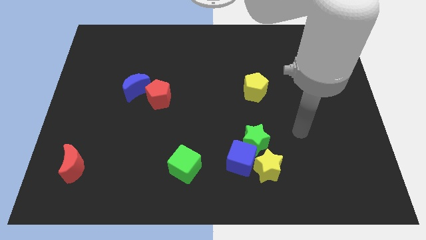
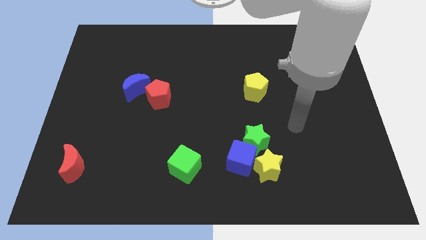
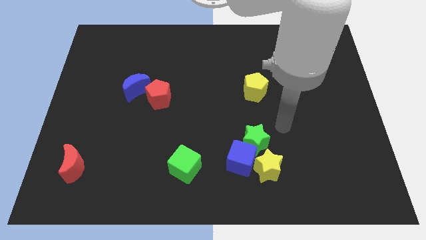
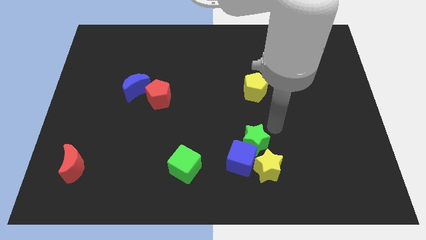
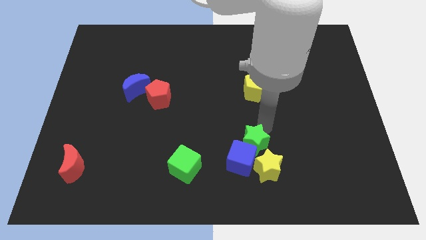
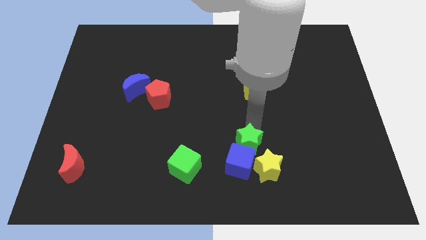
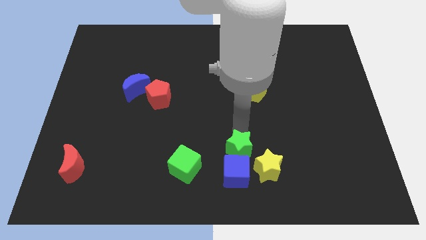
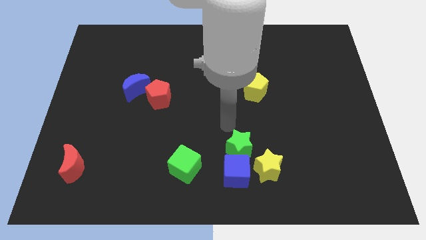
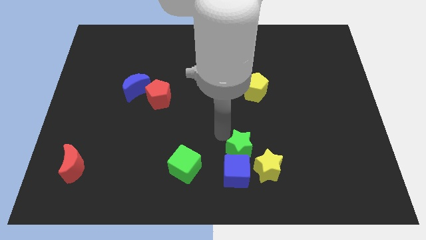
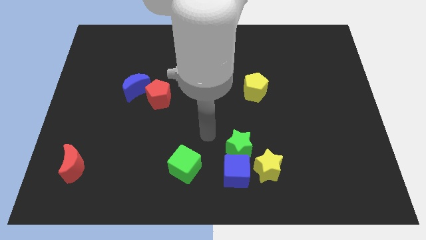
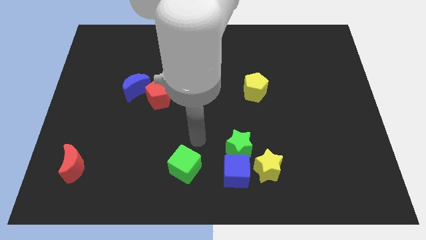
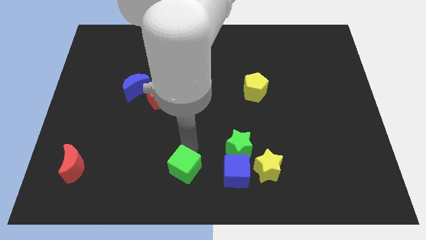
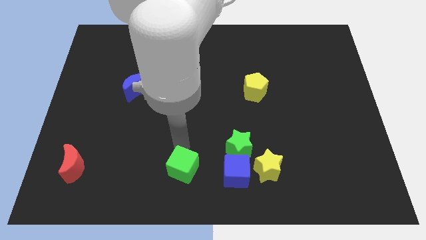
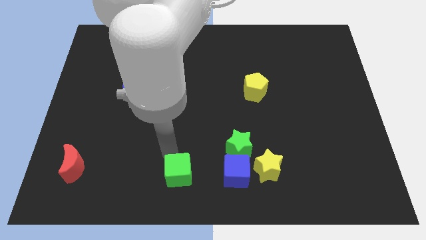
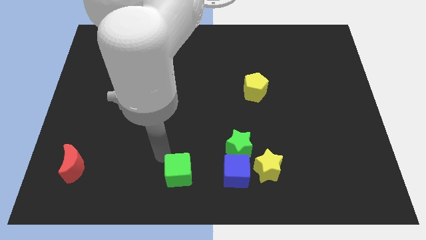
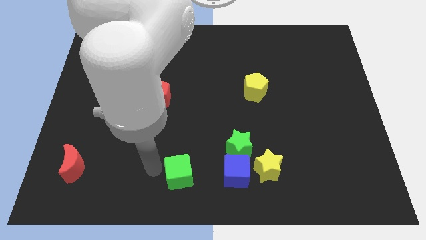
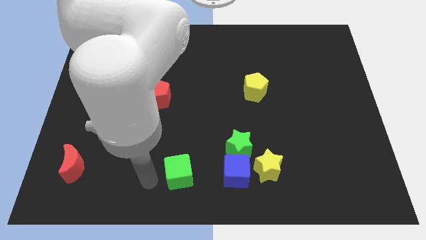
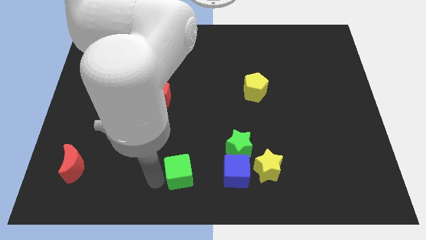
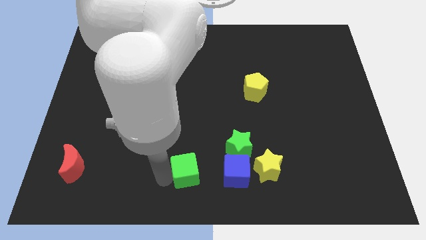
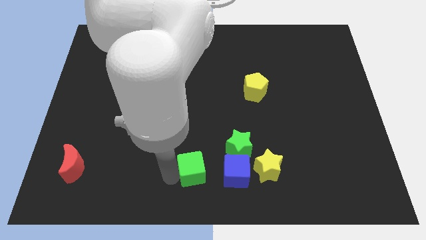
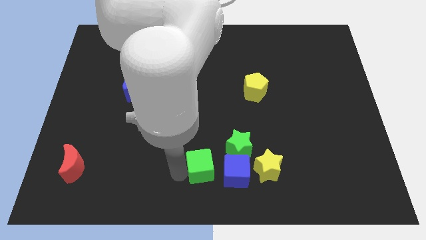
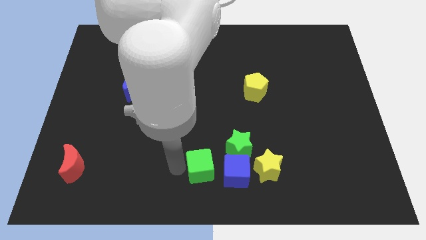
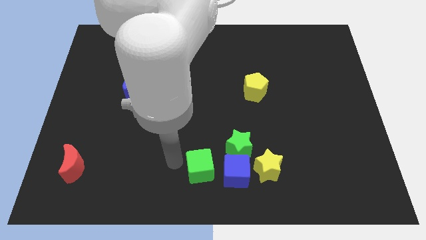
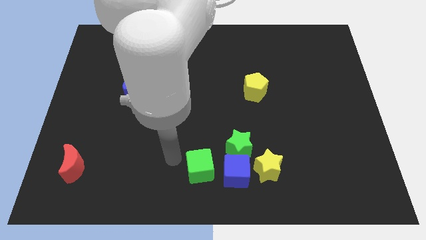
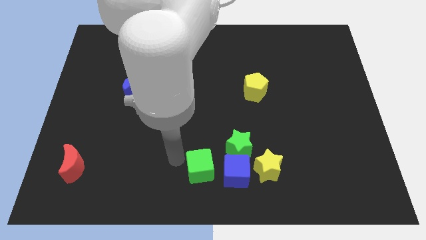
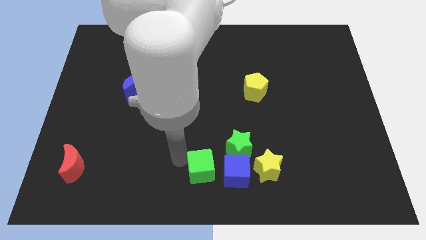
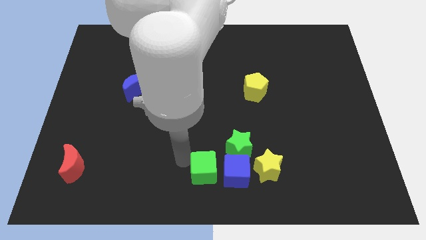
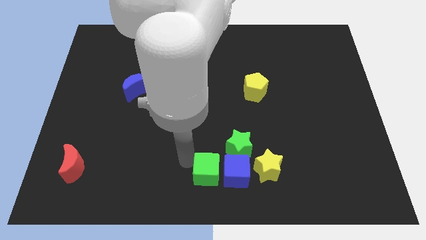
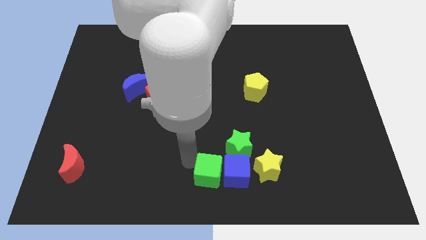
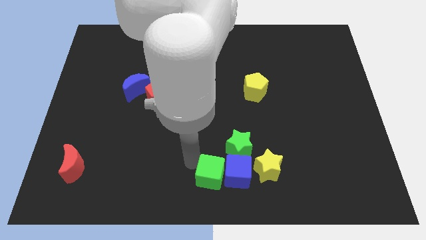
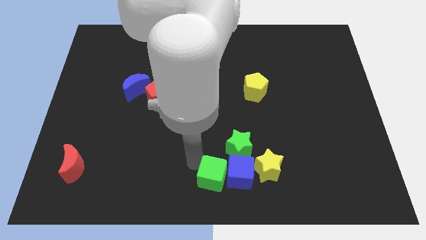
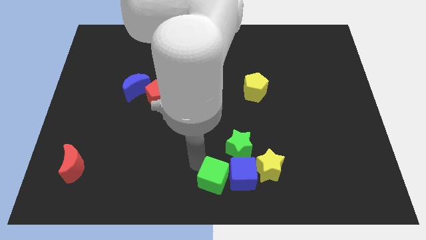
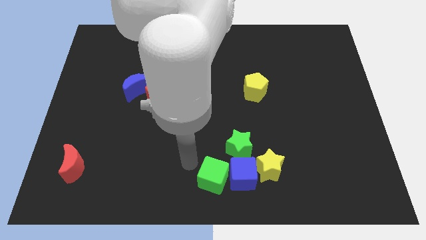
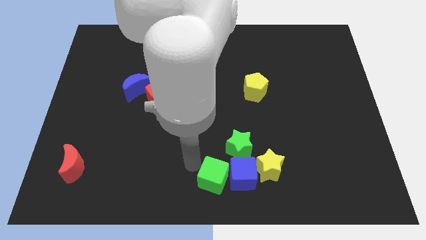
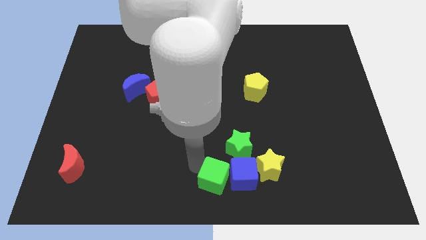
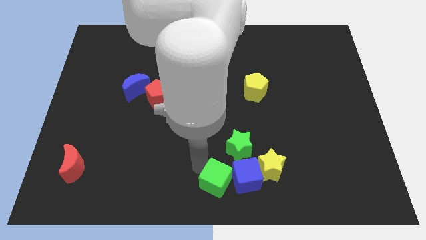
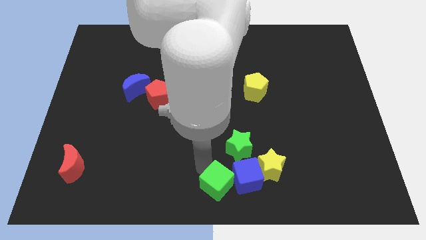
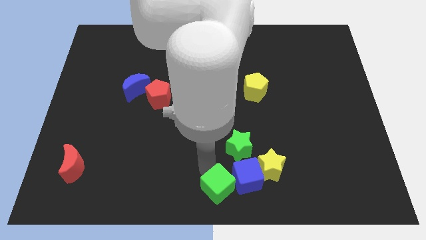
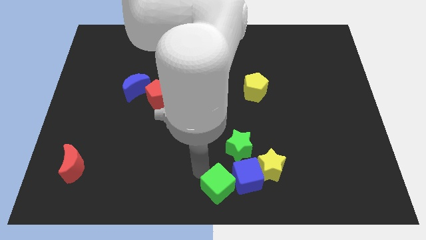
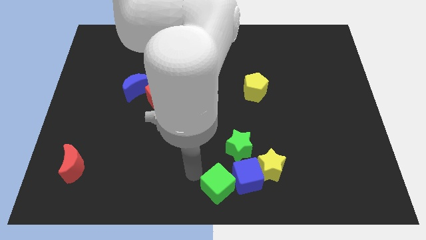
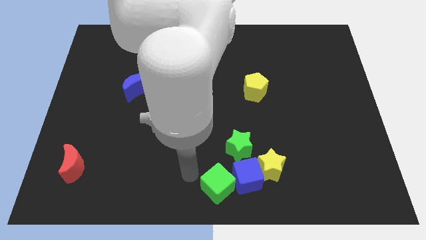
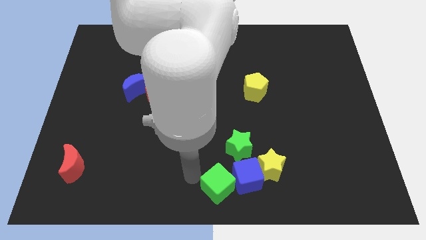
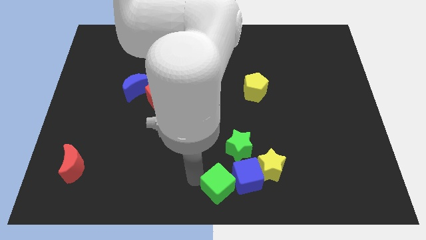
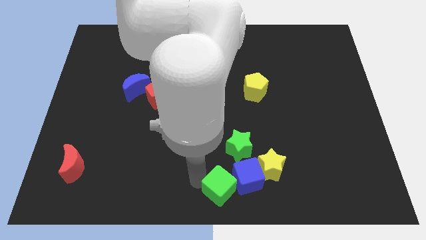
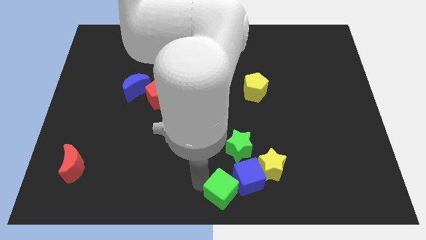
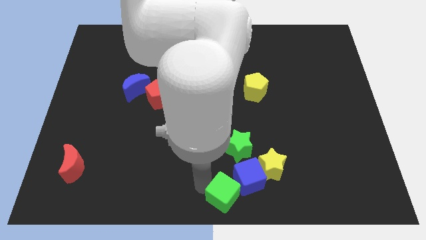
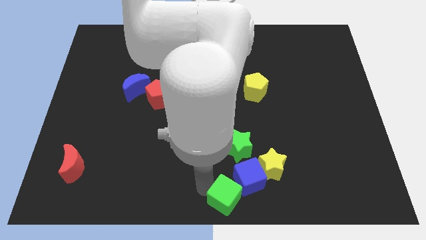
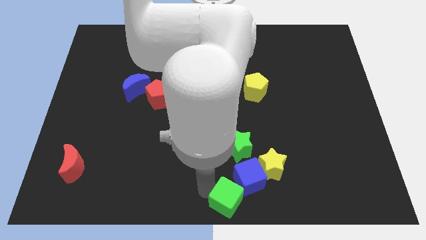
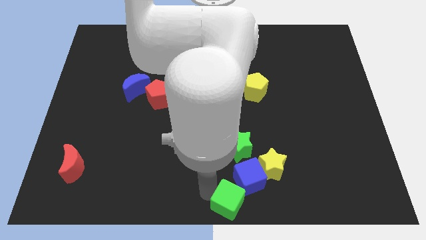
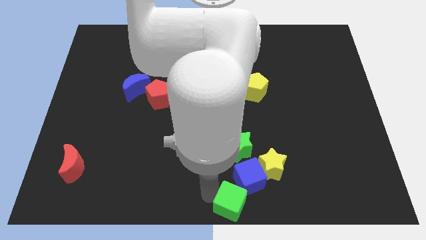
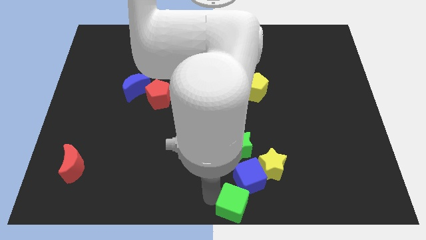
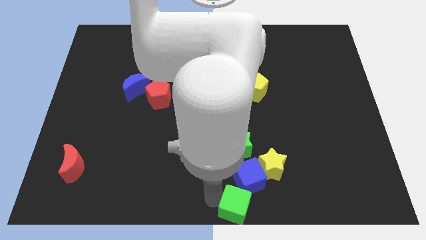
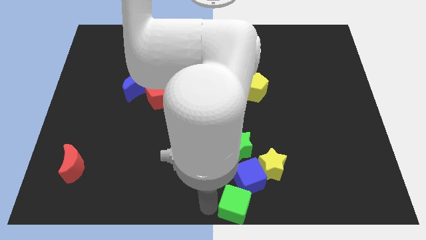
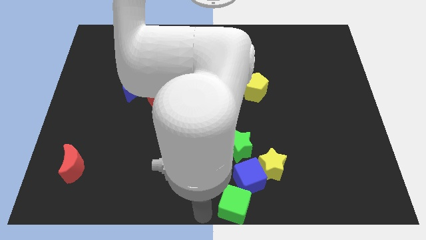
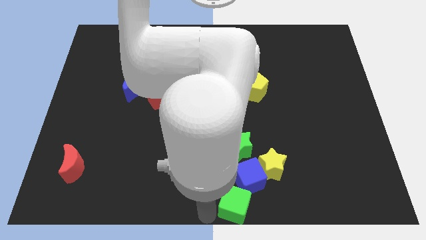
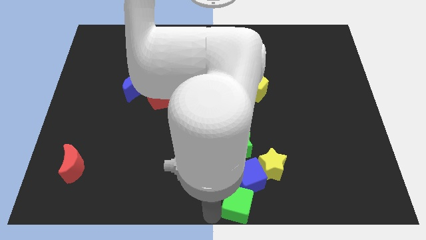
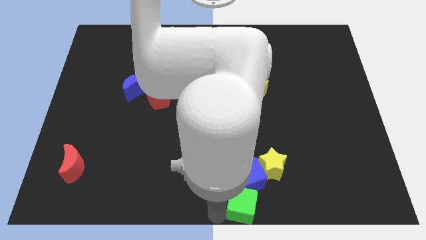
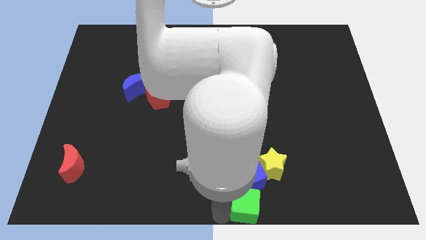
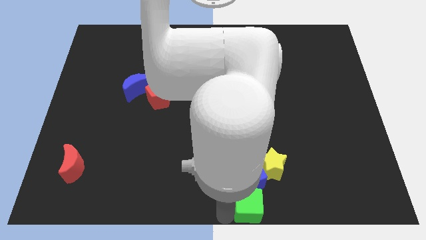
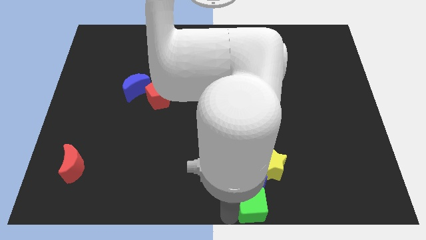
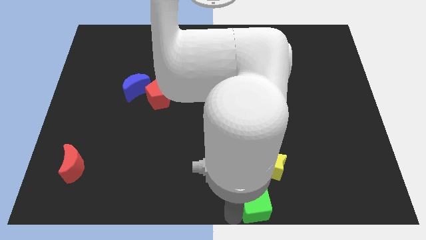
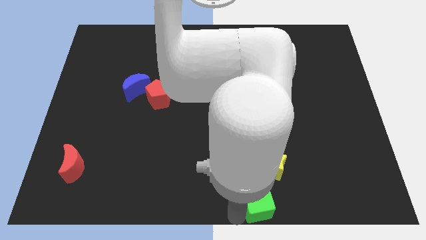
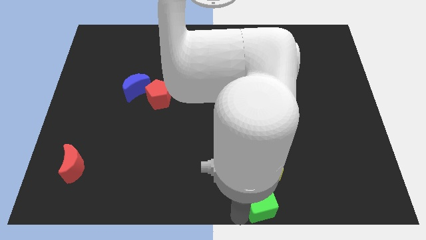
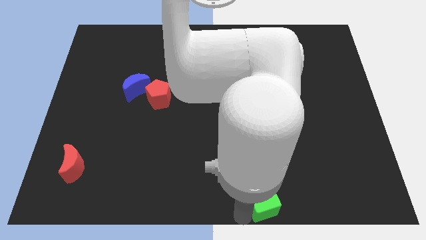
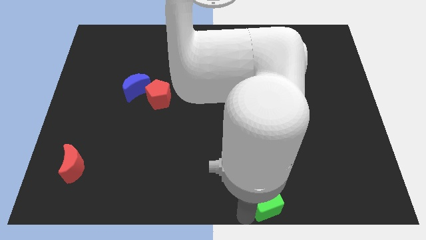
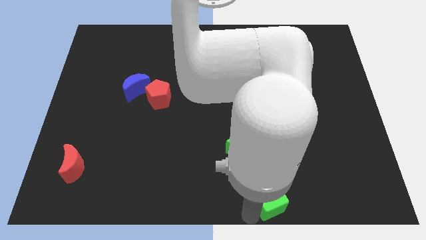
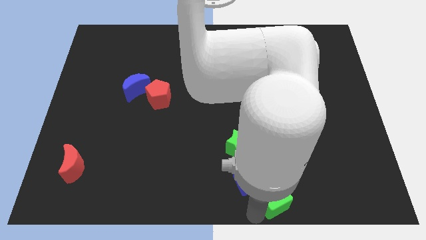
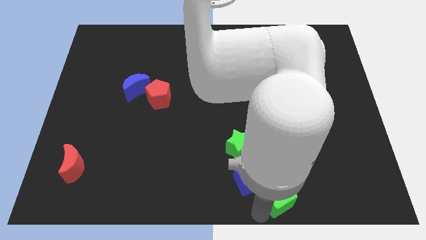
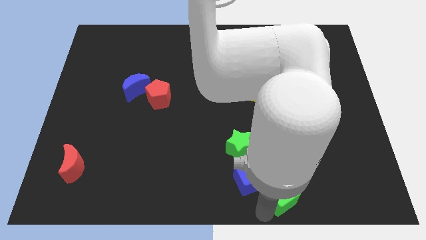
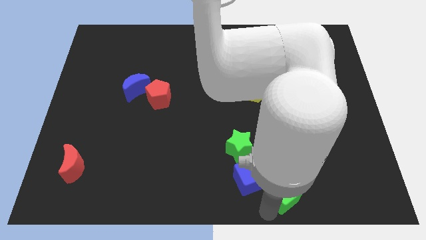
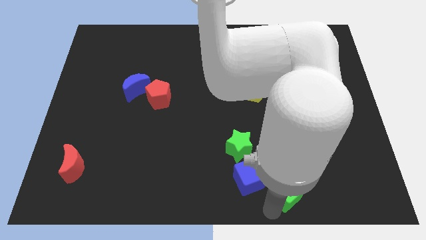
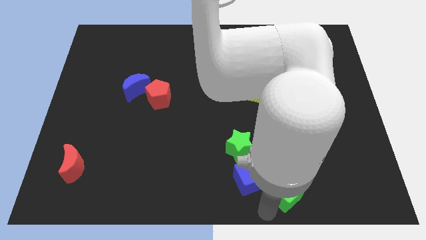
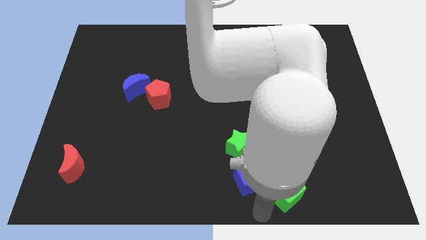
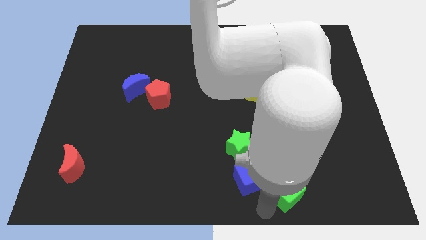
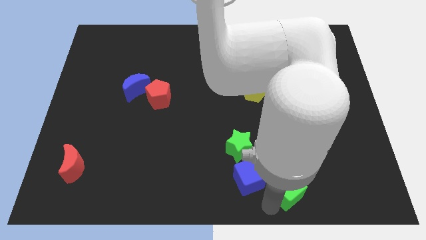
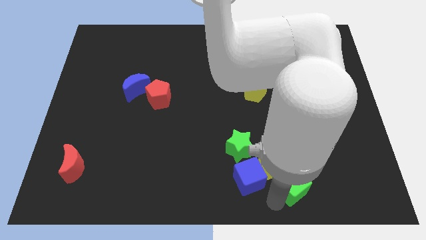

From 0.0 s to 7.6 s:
put the green cube to the right of the yellow star

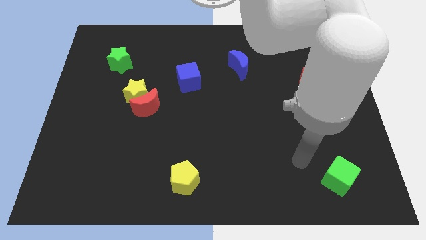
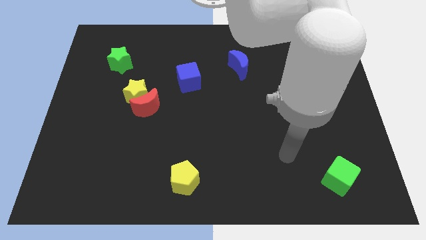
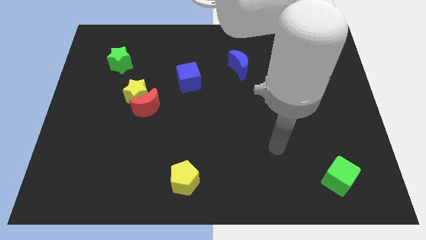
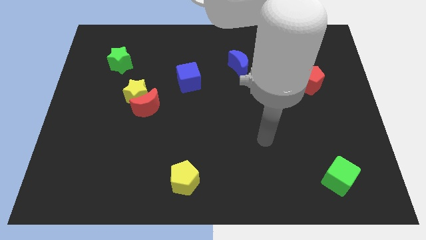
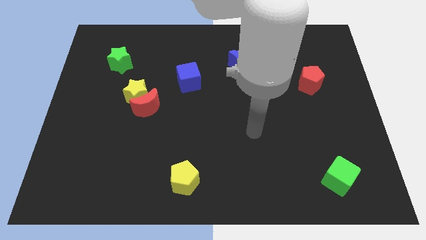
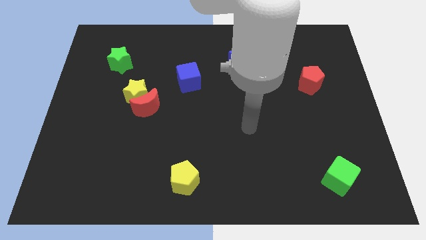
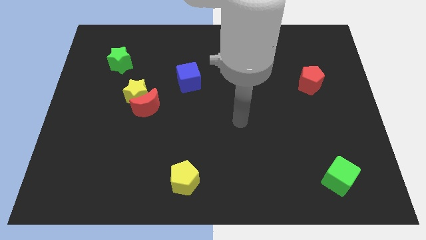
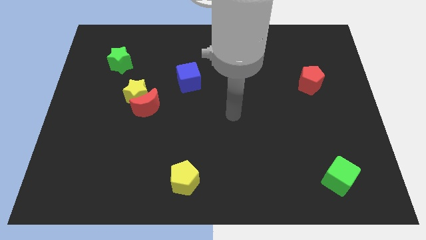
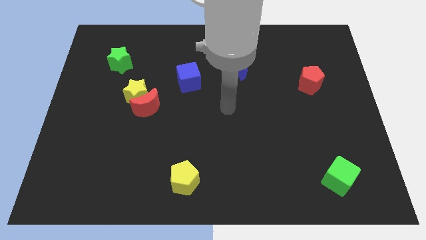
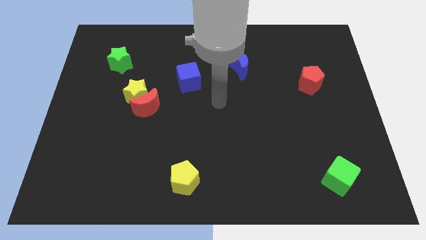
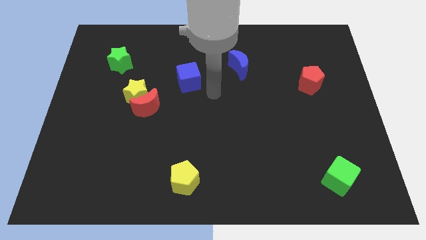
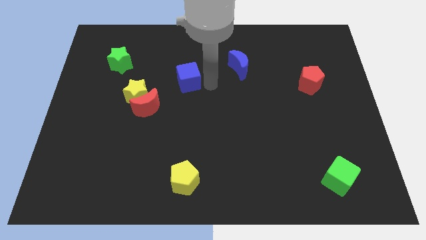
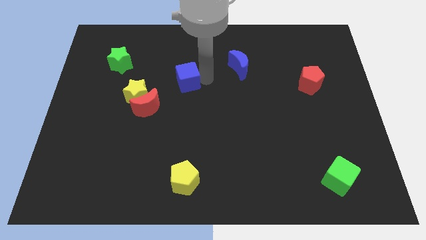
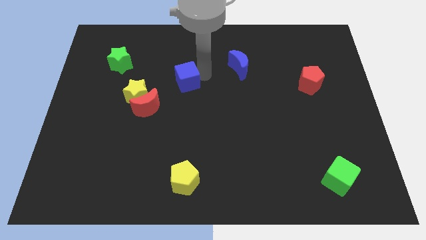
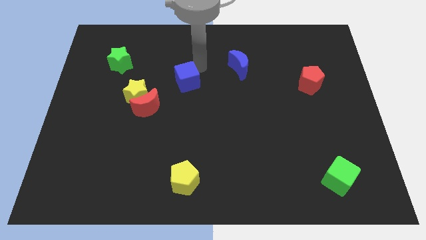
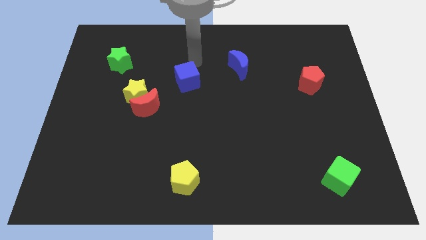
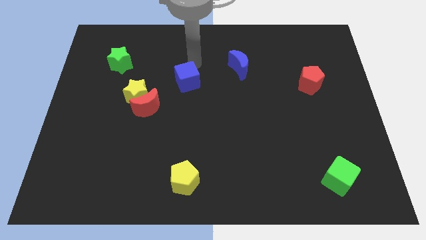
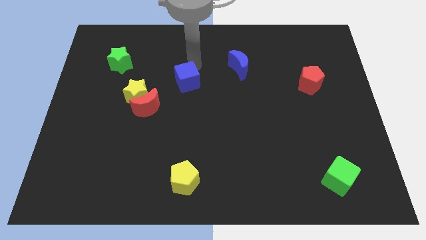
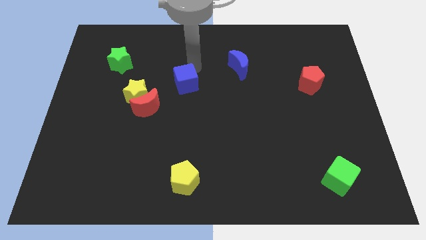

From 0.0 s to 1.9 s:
slide the blue cube right of the yellow star
